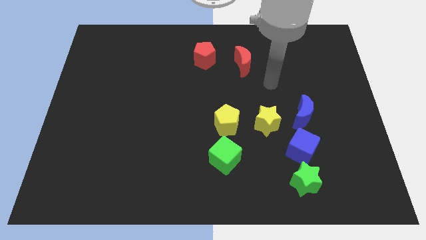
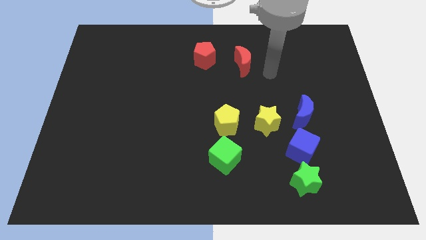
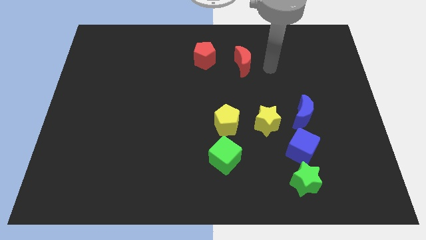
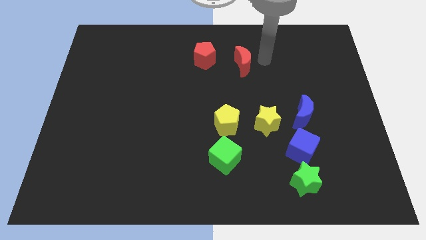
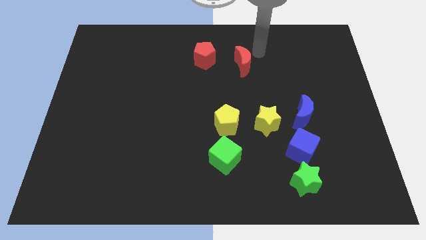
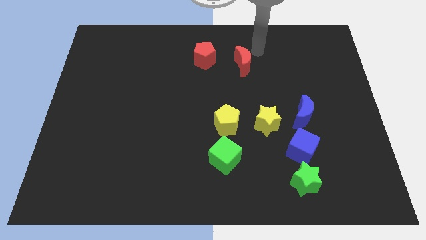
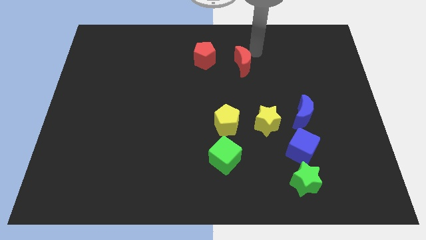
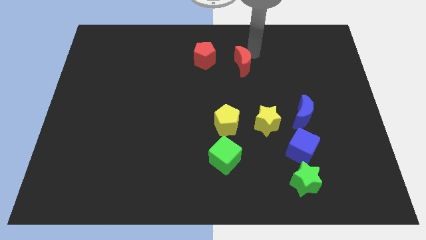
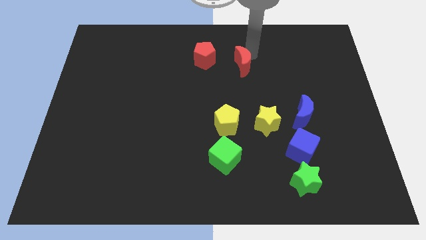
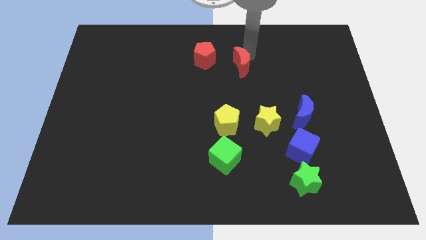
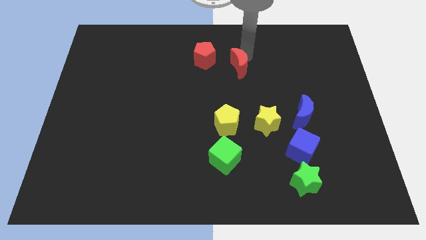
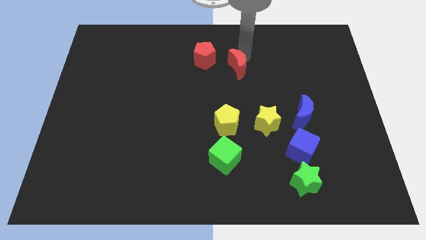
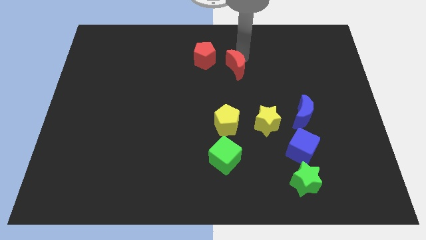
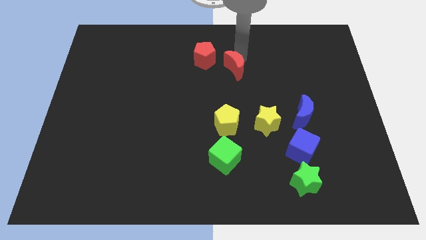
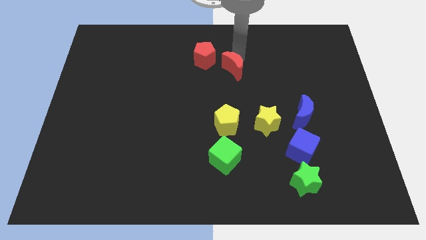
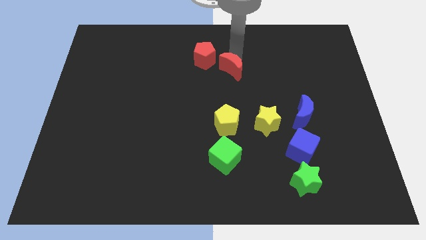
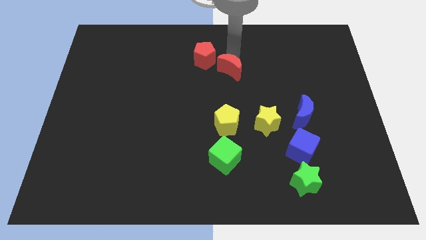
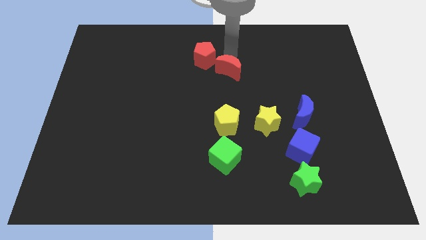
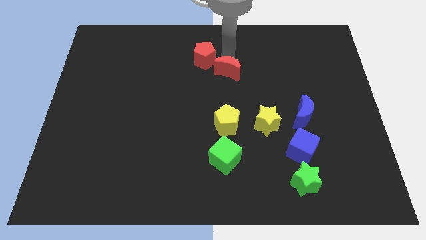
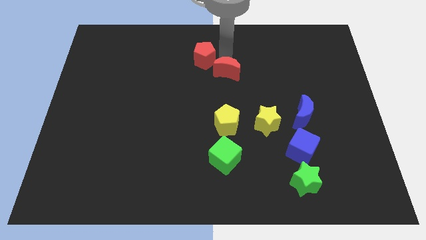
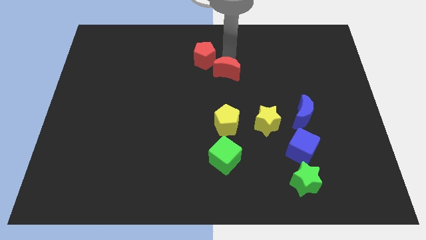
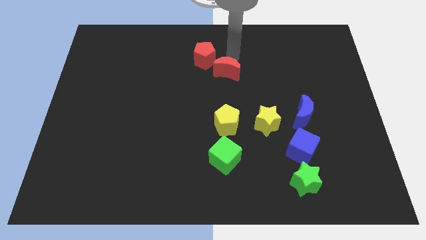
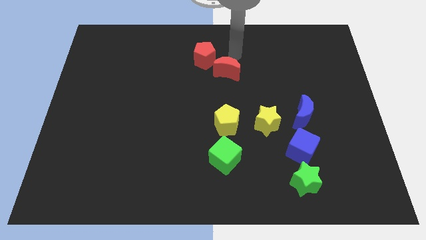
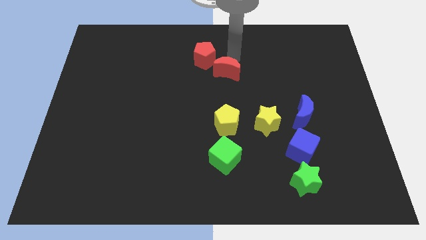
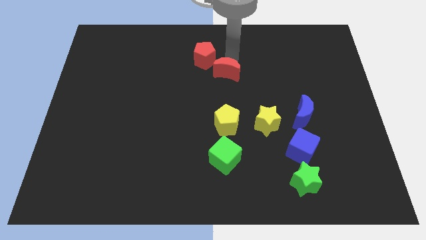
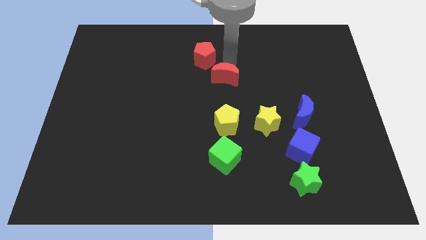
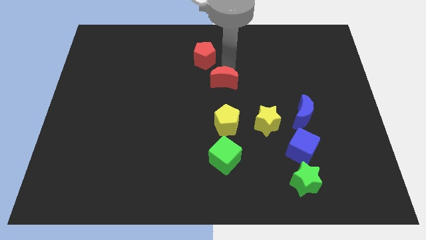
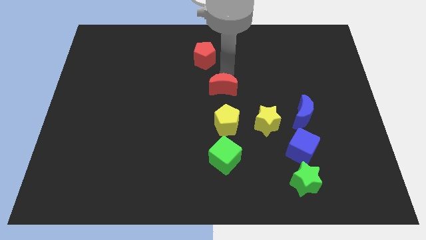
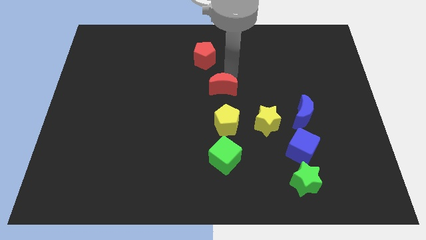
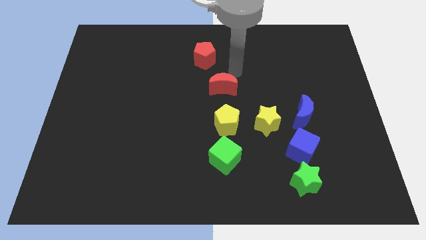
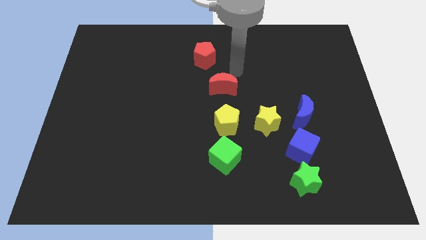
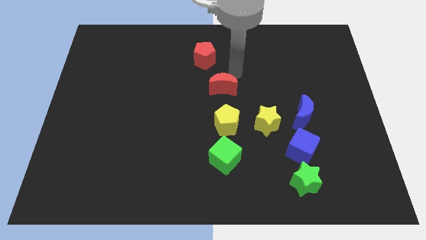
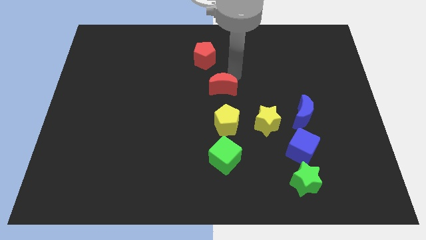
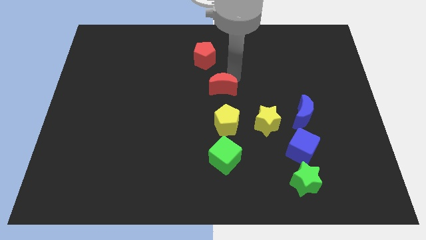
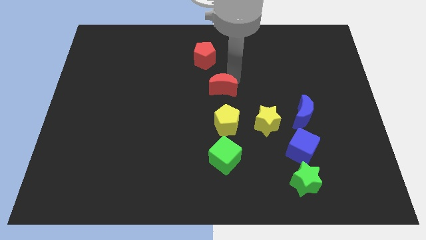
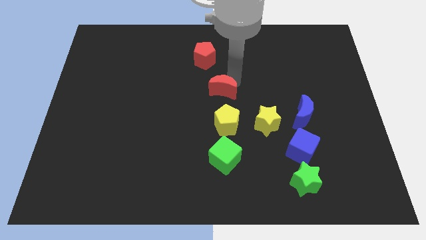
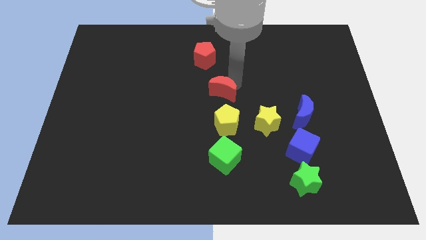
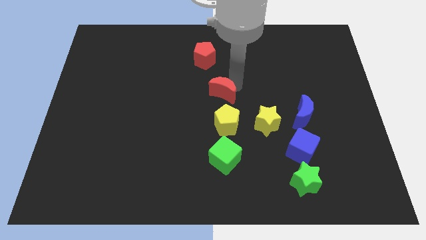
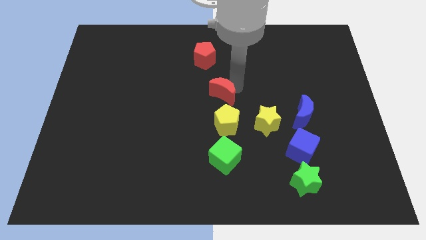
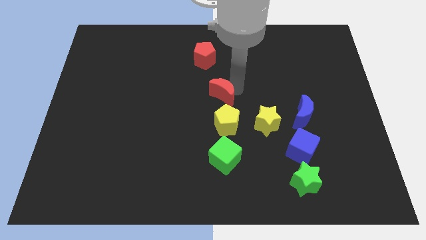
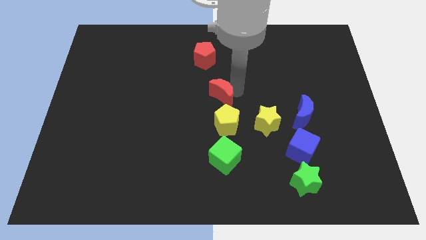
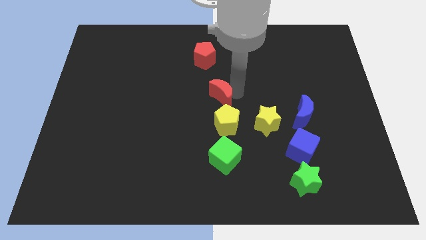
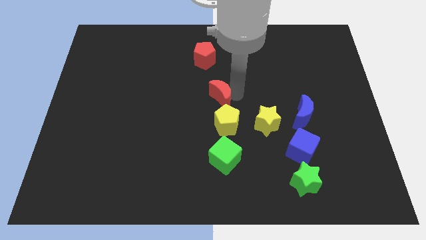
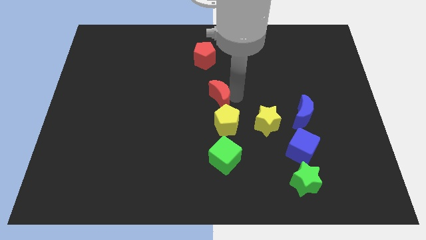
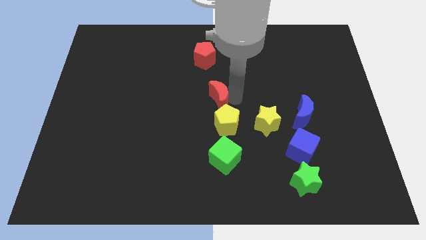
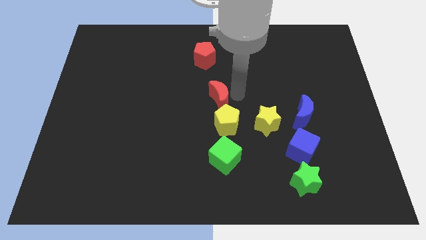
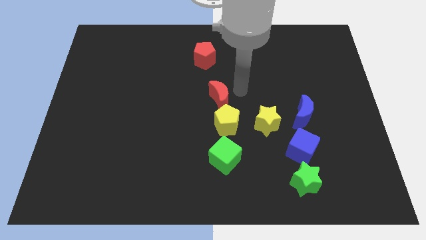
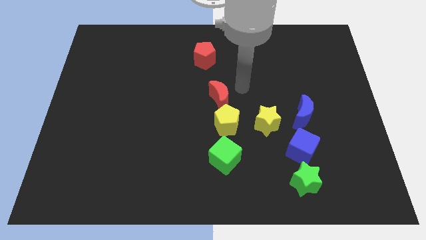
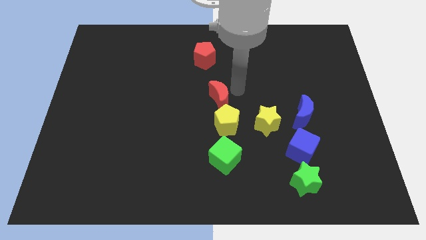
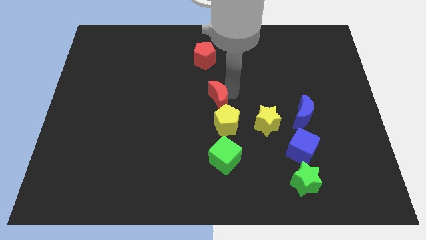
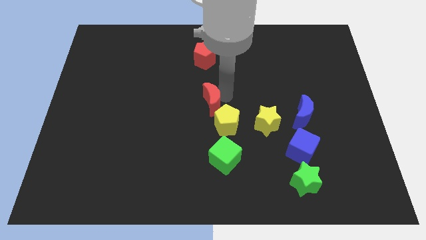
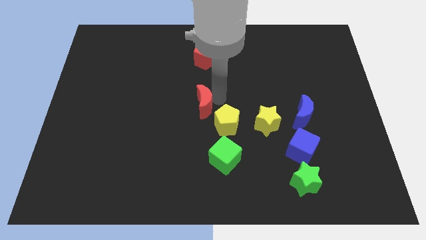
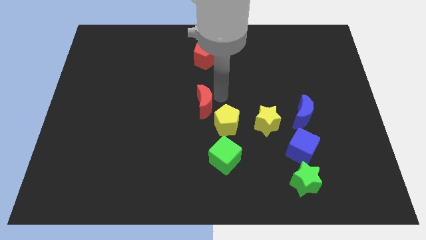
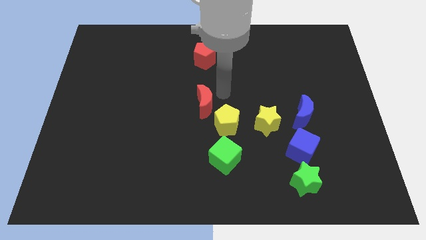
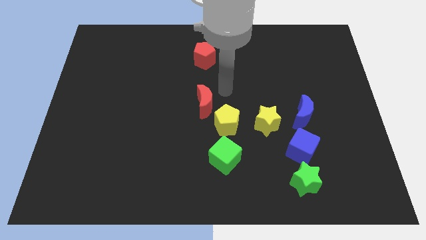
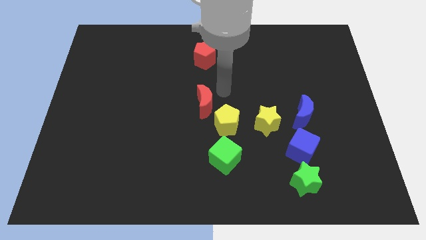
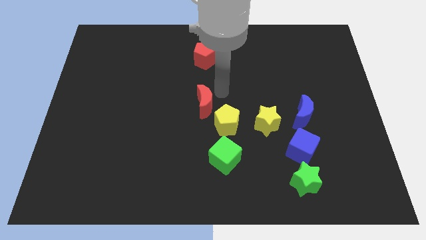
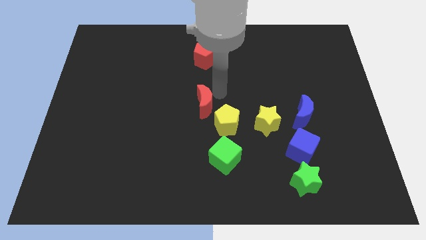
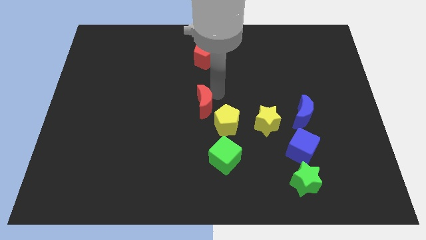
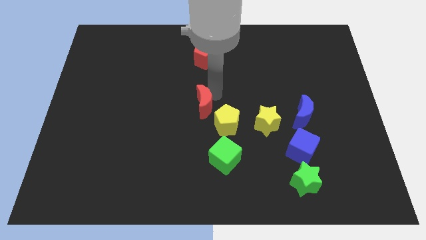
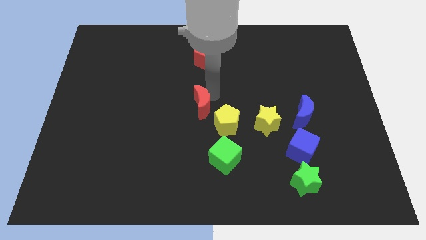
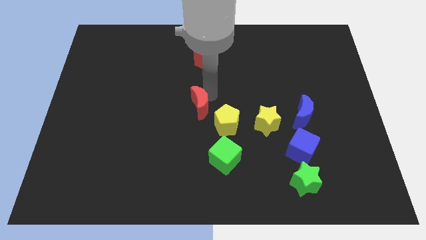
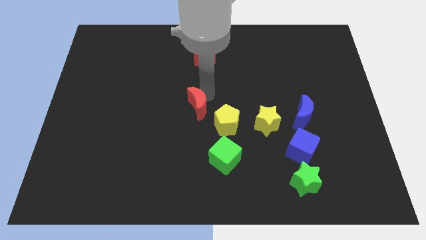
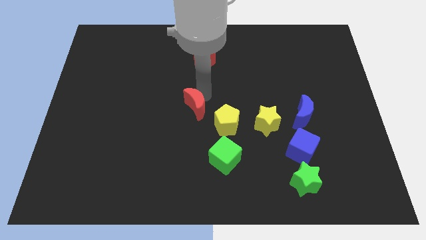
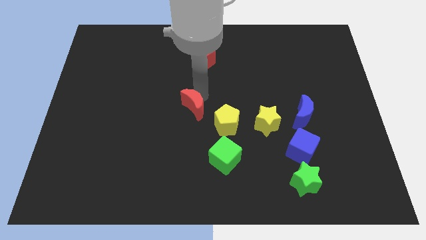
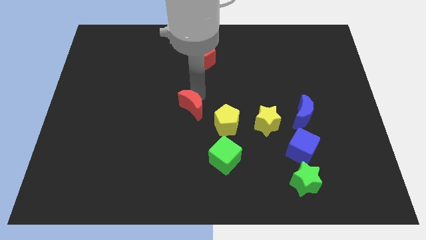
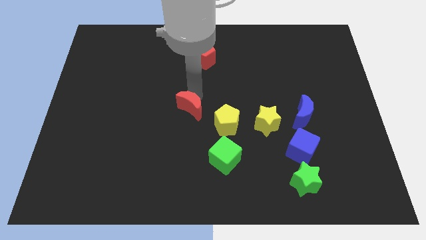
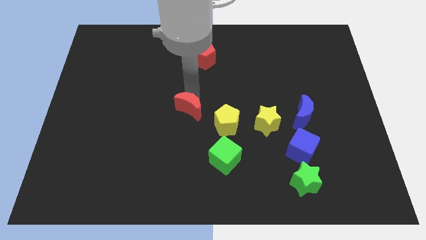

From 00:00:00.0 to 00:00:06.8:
slide the red moon downwards and then left

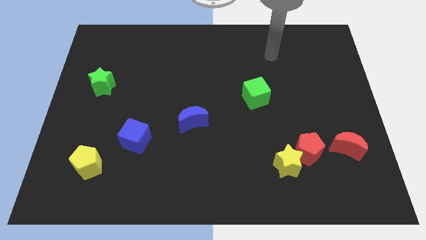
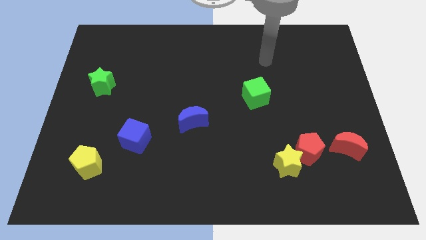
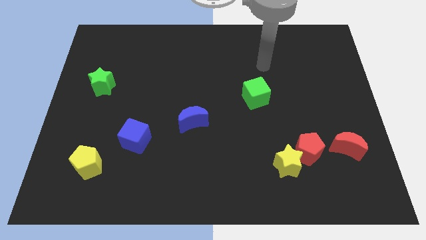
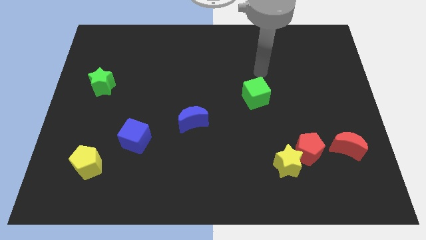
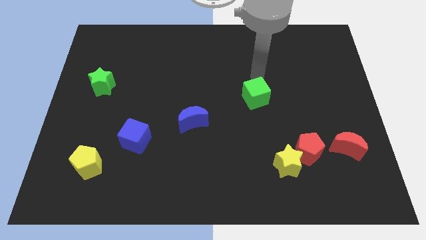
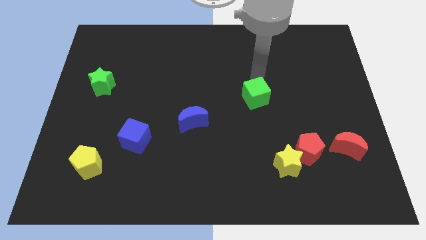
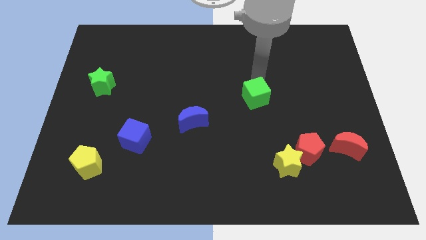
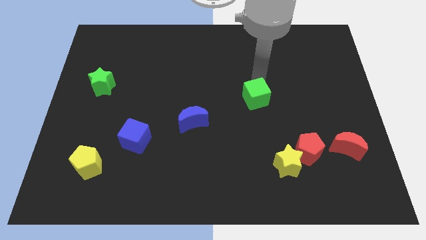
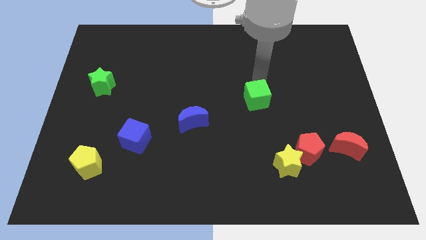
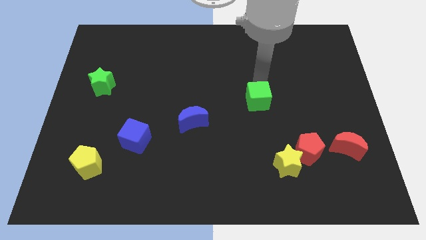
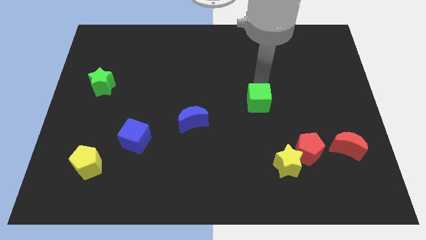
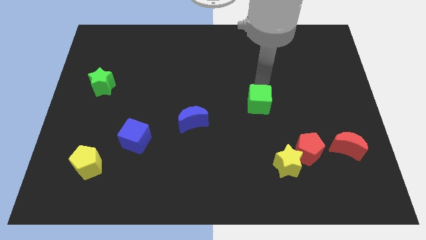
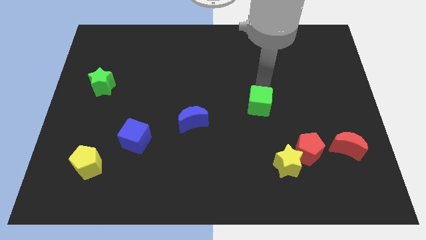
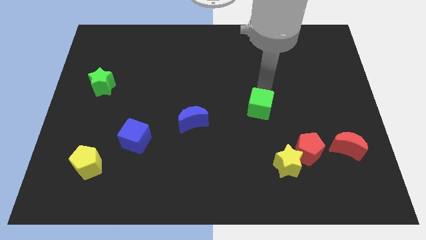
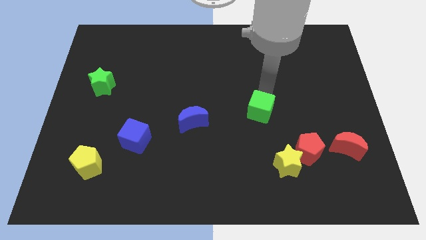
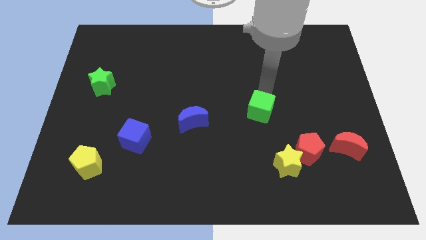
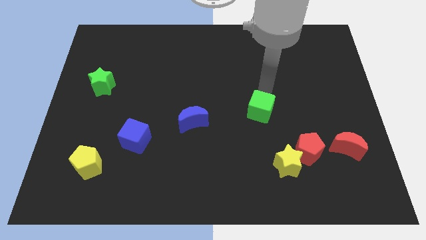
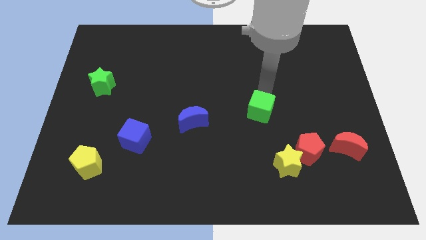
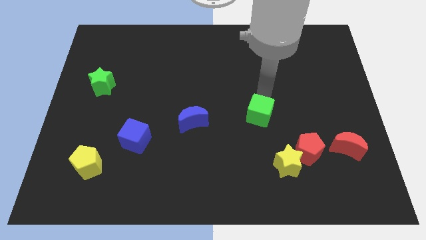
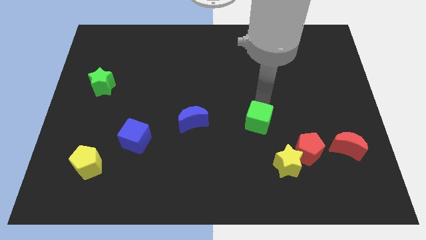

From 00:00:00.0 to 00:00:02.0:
move the green cube downwards a little bit

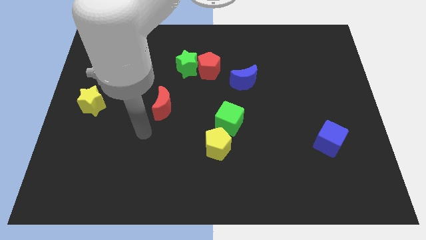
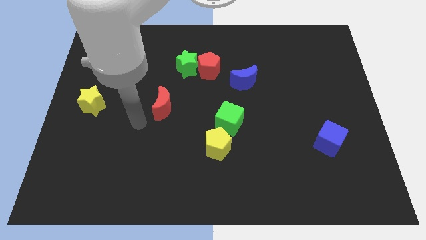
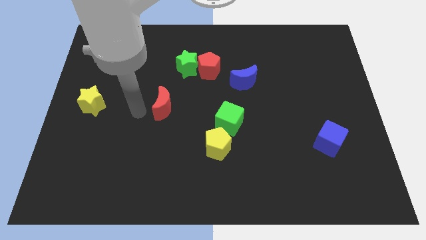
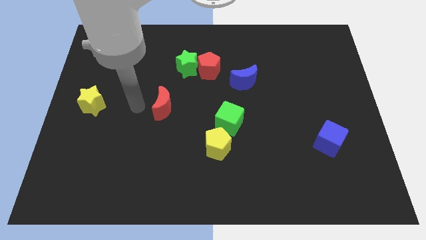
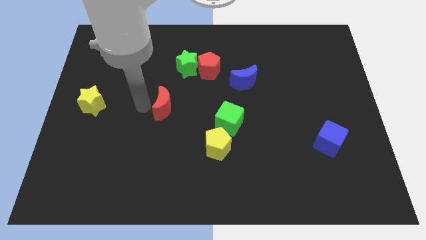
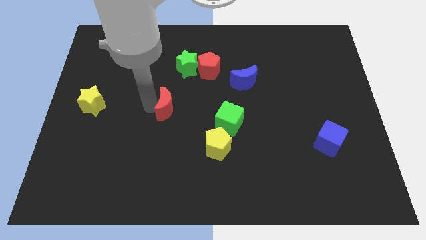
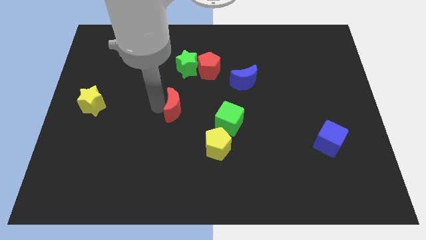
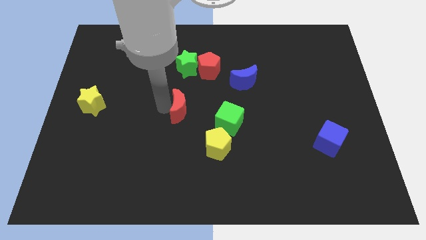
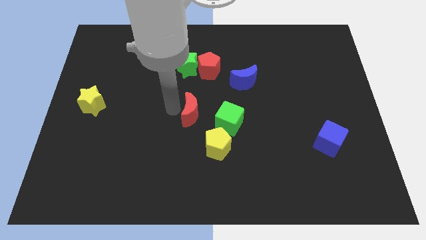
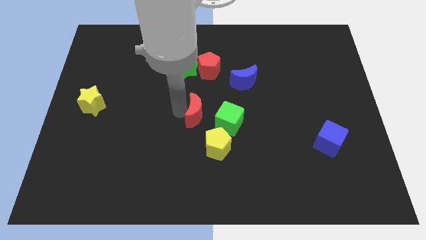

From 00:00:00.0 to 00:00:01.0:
move the red moon a little to the right
